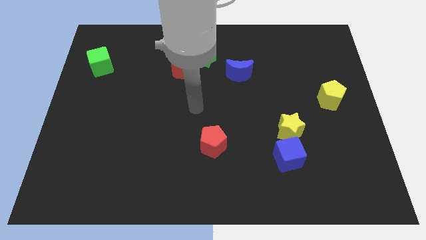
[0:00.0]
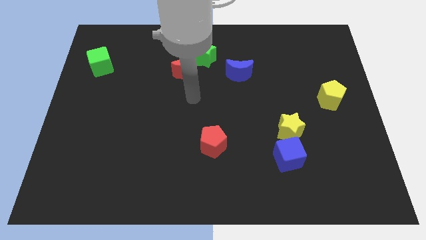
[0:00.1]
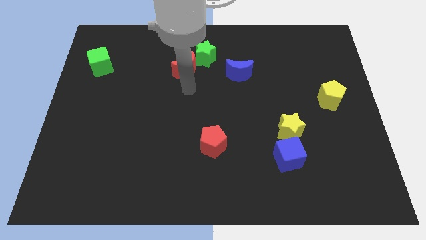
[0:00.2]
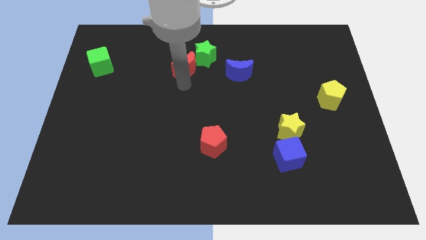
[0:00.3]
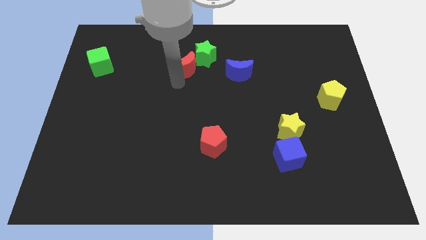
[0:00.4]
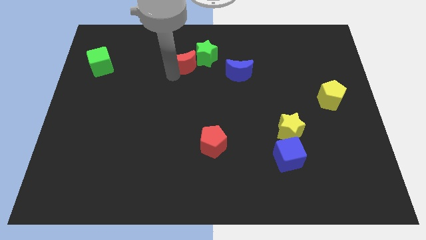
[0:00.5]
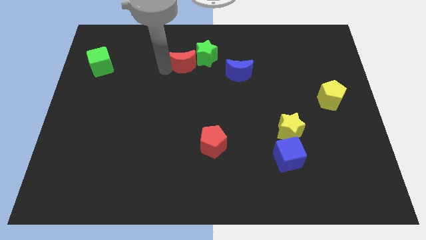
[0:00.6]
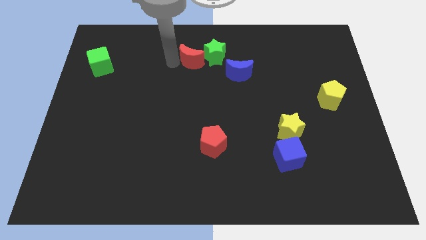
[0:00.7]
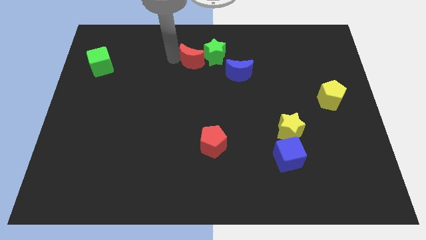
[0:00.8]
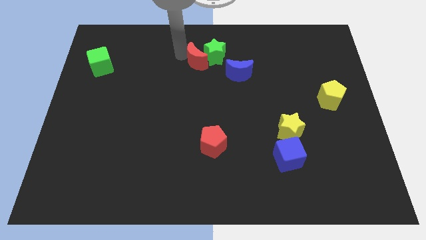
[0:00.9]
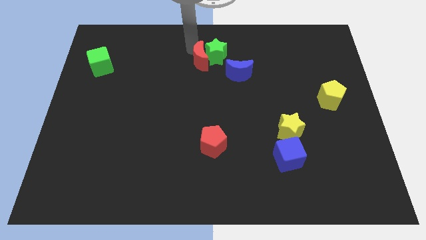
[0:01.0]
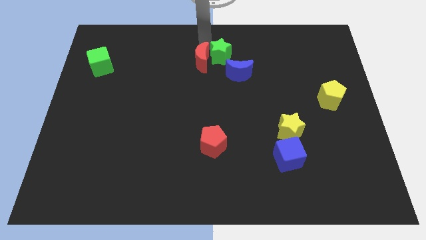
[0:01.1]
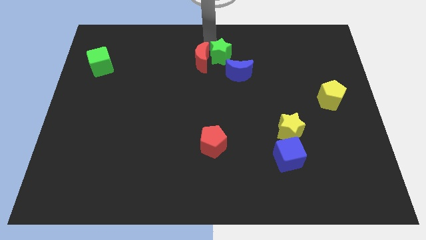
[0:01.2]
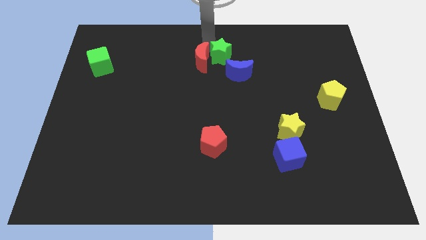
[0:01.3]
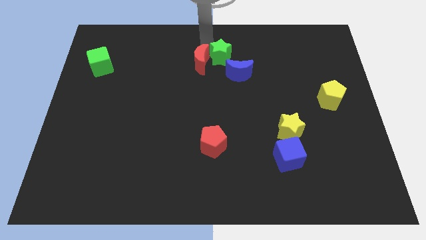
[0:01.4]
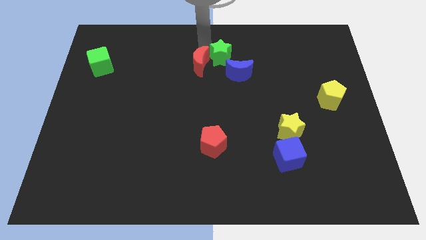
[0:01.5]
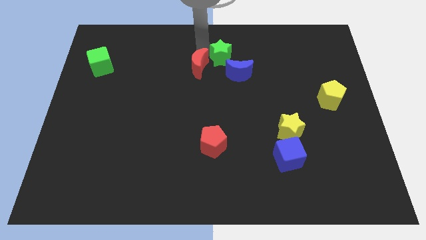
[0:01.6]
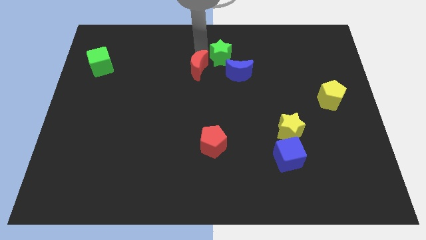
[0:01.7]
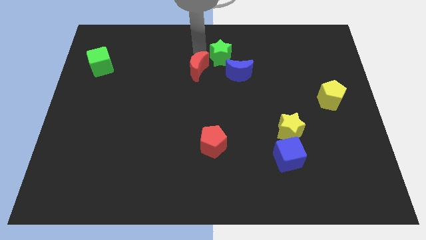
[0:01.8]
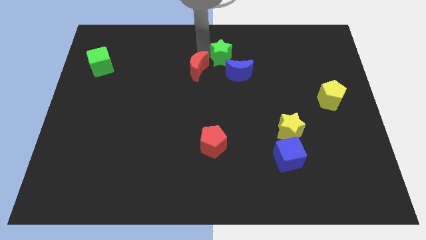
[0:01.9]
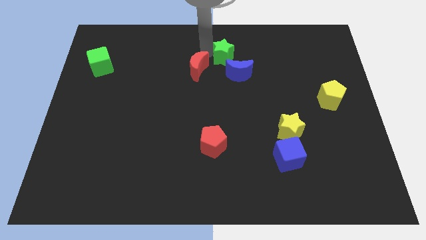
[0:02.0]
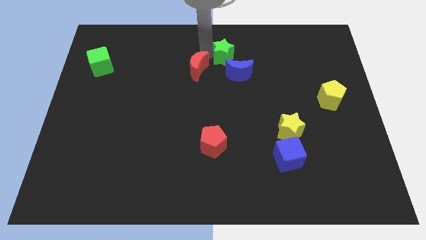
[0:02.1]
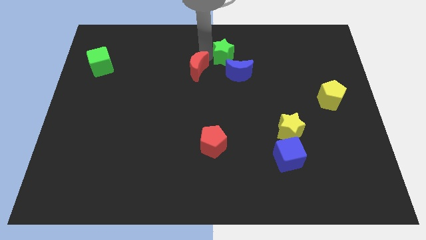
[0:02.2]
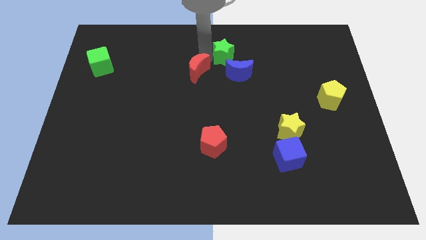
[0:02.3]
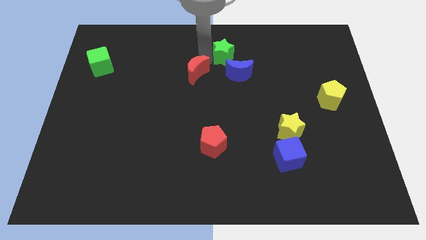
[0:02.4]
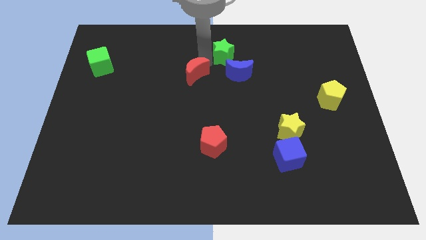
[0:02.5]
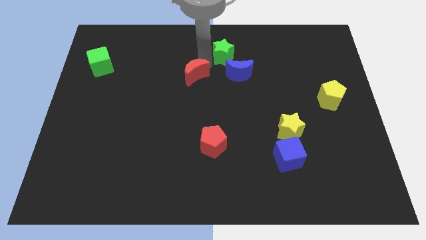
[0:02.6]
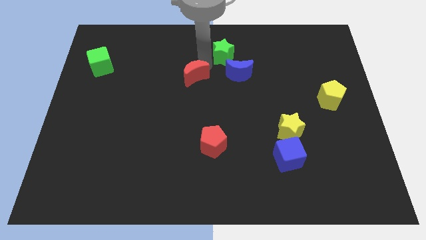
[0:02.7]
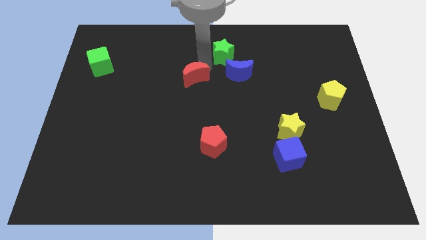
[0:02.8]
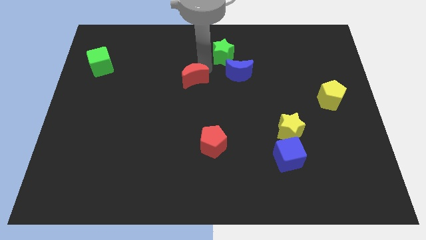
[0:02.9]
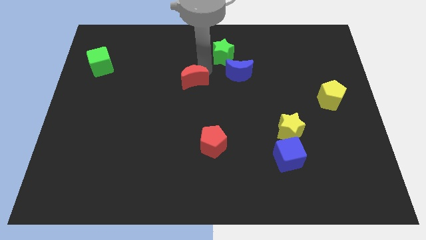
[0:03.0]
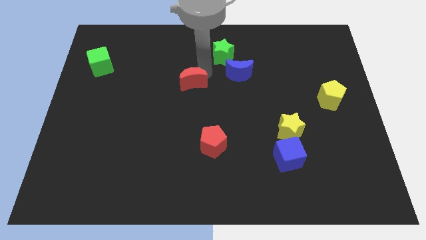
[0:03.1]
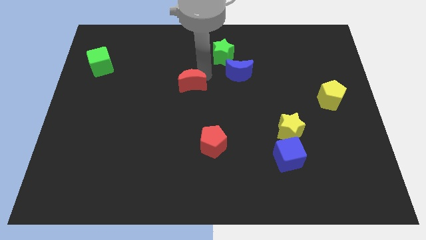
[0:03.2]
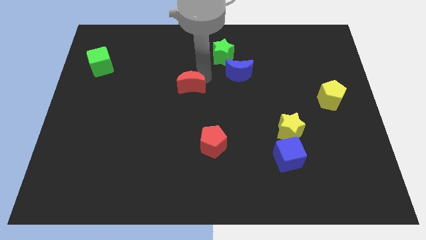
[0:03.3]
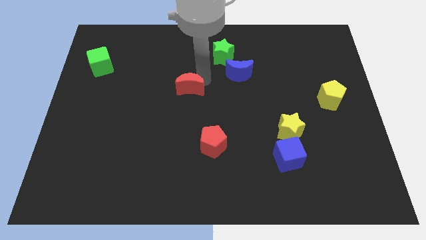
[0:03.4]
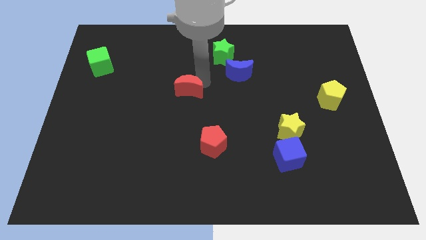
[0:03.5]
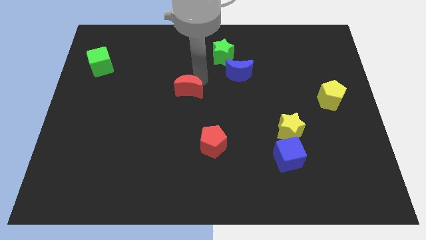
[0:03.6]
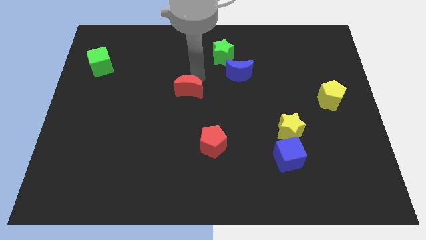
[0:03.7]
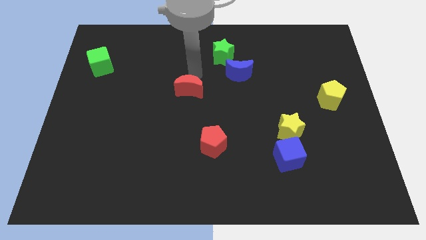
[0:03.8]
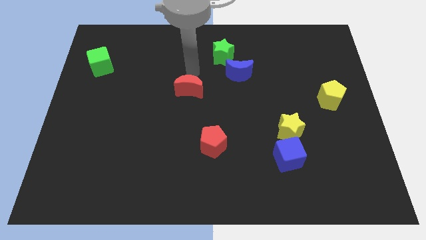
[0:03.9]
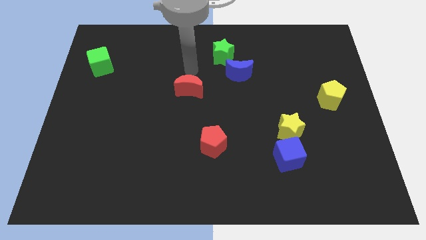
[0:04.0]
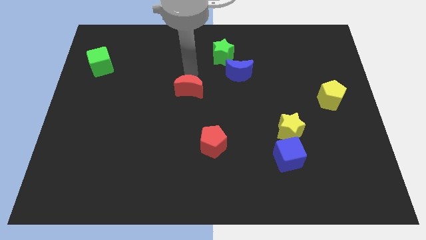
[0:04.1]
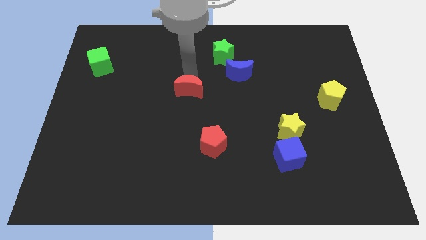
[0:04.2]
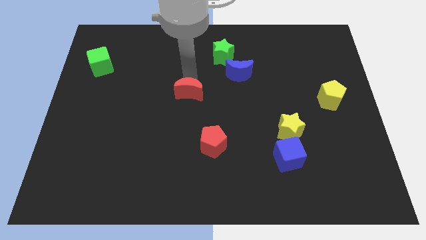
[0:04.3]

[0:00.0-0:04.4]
push the red moon a bit down

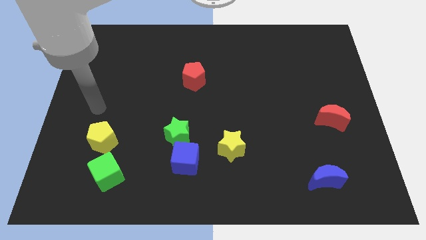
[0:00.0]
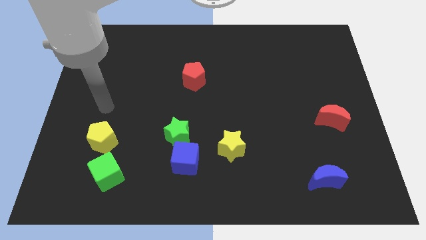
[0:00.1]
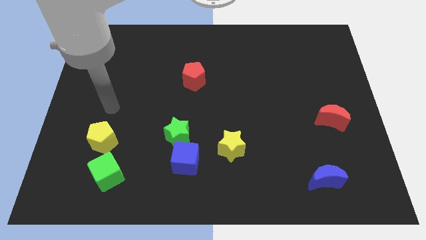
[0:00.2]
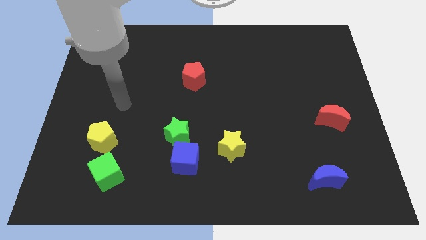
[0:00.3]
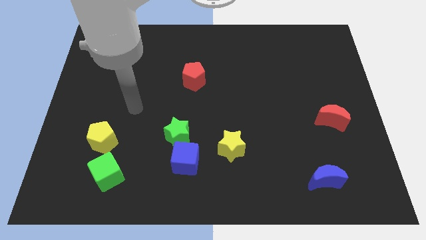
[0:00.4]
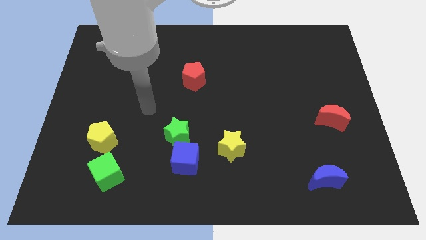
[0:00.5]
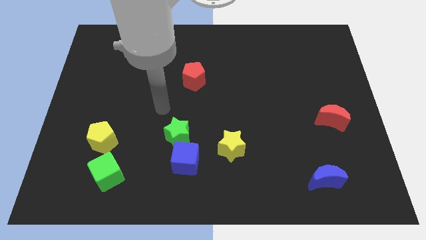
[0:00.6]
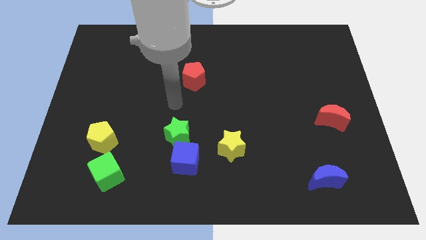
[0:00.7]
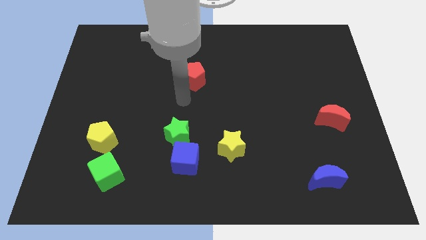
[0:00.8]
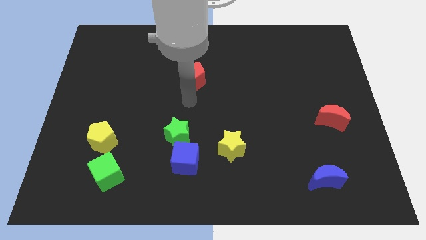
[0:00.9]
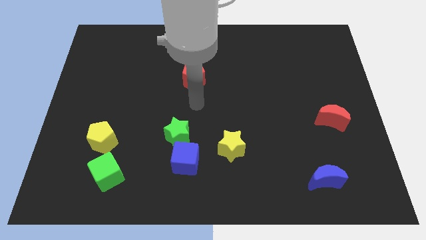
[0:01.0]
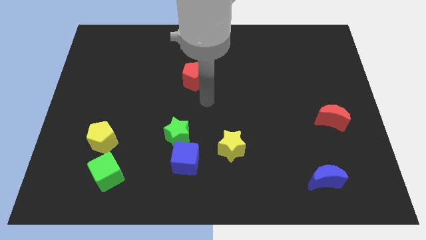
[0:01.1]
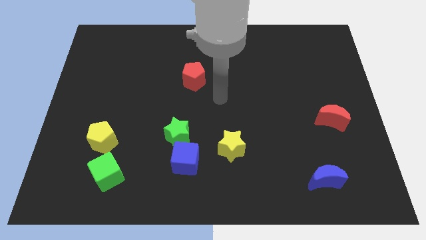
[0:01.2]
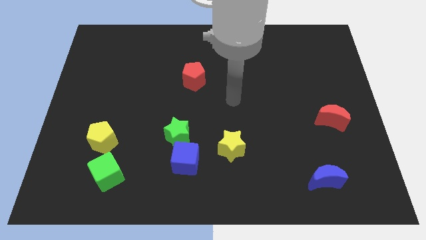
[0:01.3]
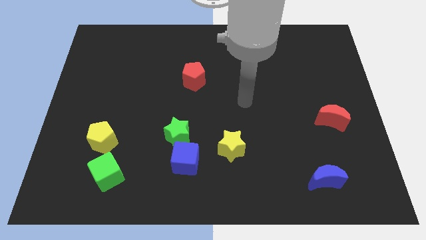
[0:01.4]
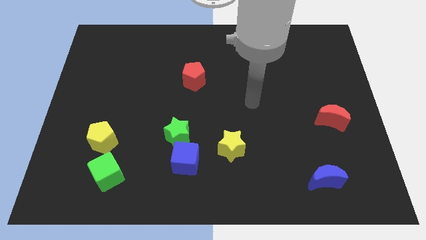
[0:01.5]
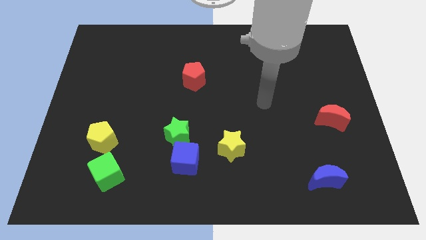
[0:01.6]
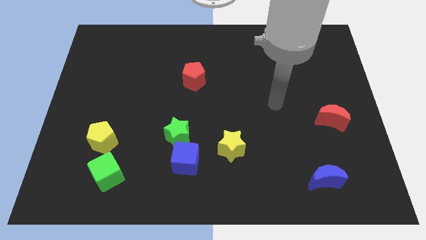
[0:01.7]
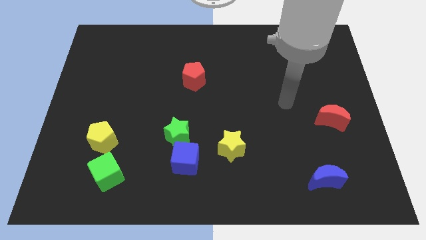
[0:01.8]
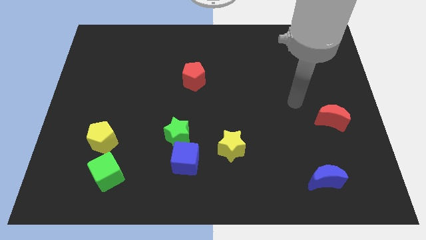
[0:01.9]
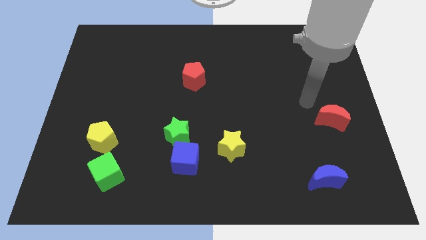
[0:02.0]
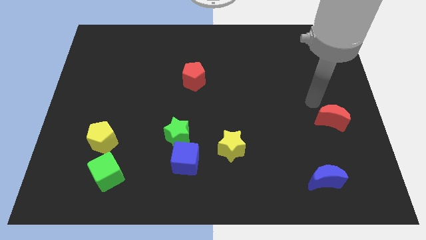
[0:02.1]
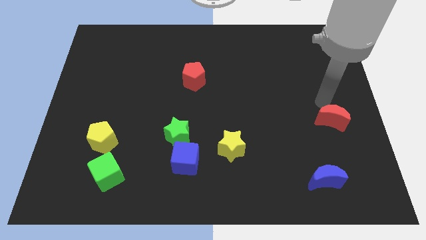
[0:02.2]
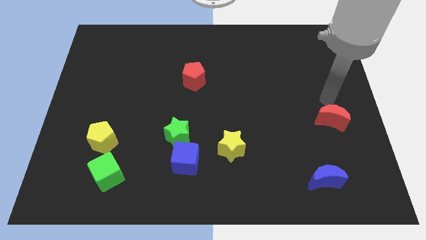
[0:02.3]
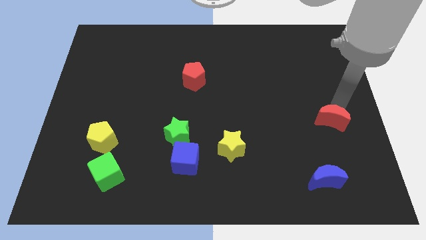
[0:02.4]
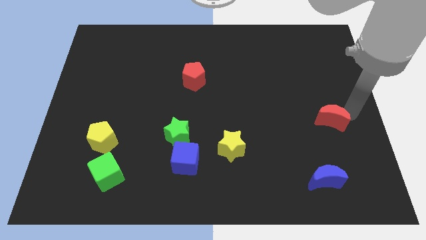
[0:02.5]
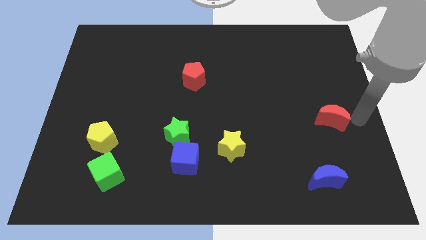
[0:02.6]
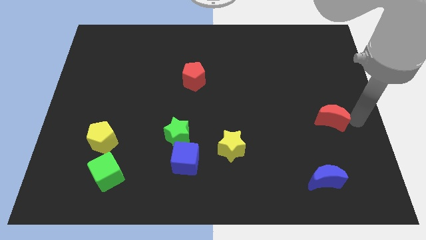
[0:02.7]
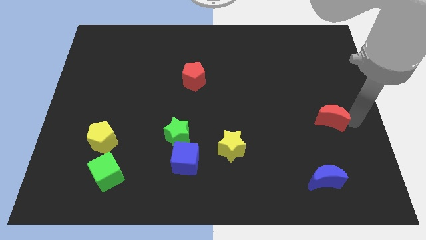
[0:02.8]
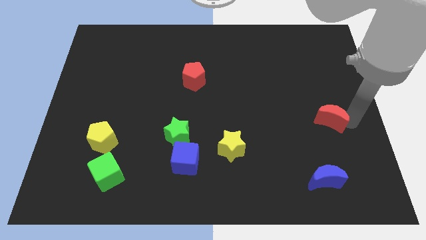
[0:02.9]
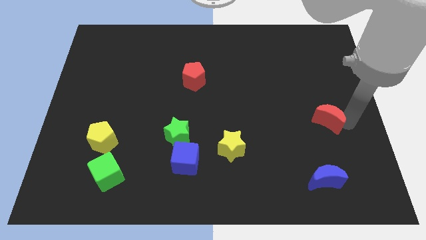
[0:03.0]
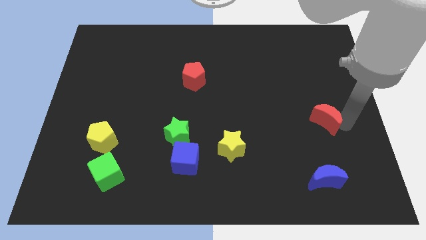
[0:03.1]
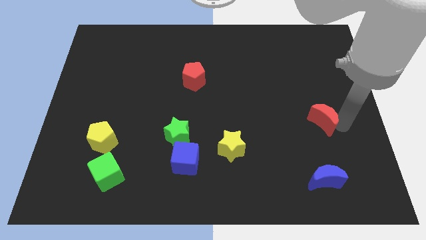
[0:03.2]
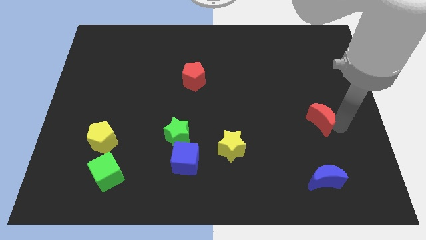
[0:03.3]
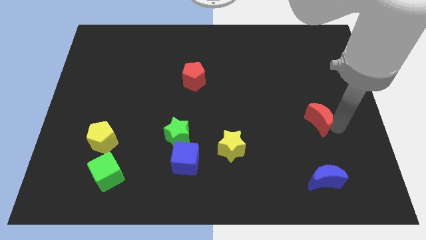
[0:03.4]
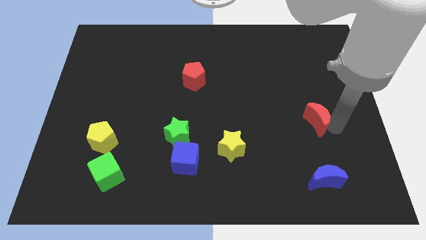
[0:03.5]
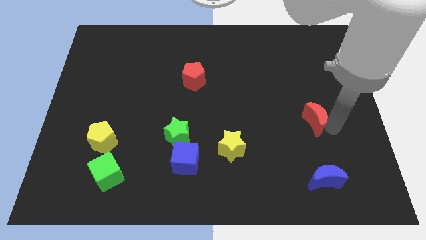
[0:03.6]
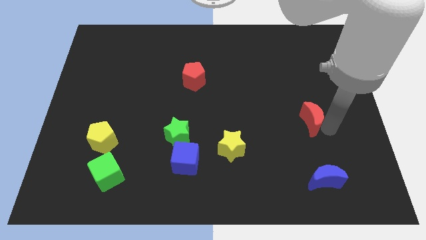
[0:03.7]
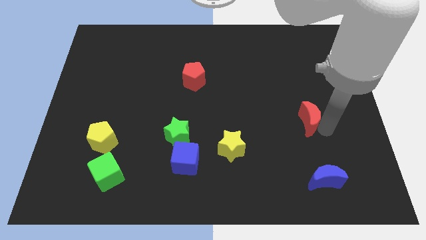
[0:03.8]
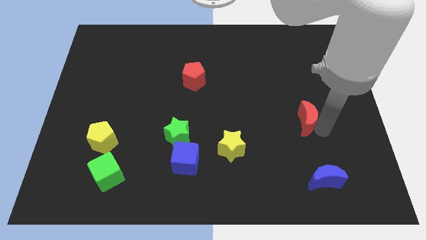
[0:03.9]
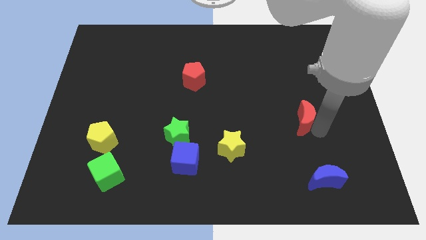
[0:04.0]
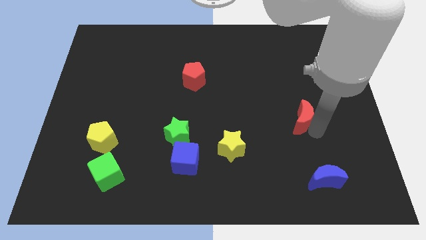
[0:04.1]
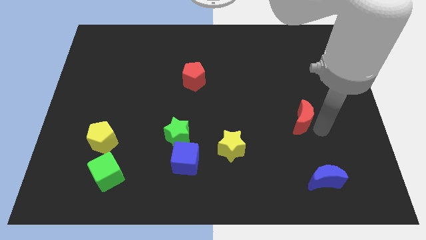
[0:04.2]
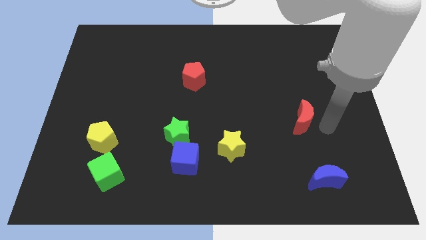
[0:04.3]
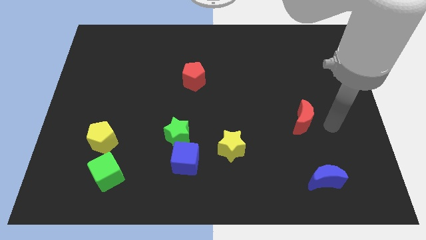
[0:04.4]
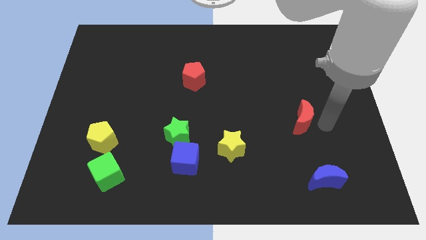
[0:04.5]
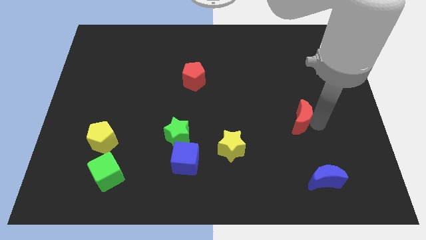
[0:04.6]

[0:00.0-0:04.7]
slide the red moon left a bit
